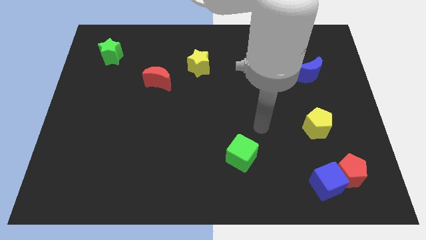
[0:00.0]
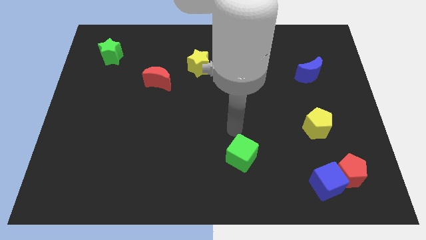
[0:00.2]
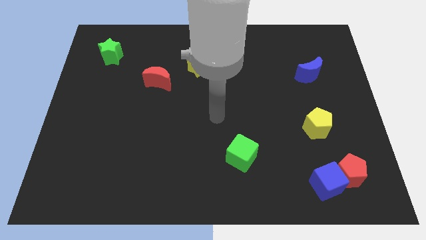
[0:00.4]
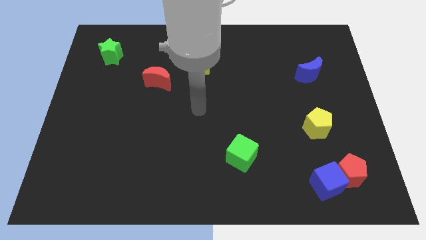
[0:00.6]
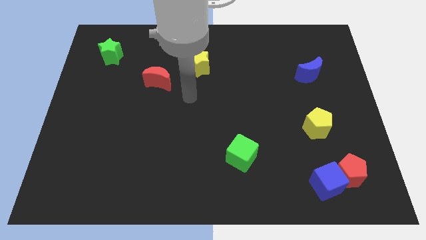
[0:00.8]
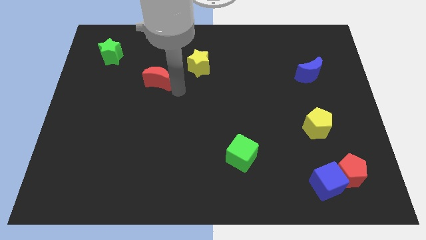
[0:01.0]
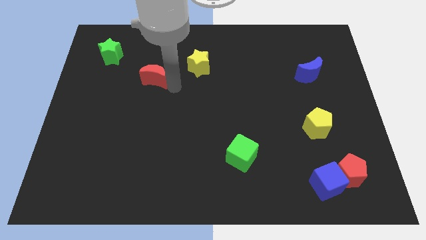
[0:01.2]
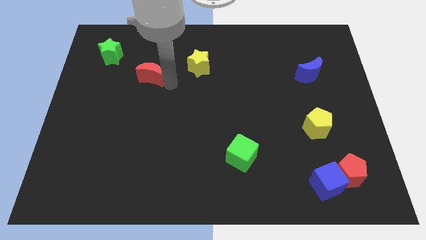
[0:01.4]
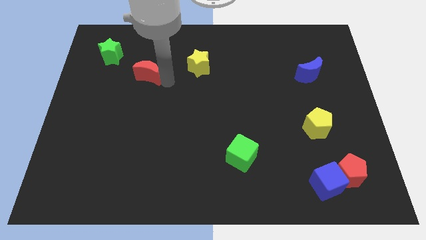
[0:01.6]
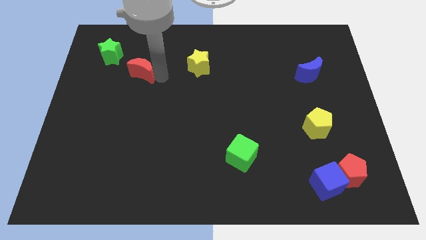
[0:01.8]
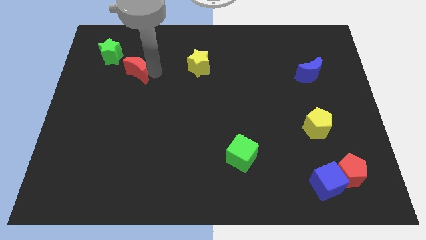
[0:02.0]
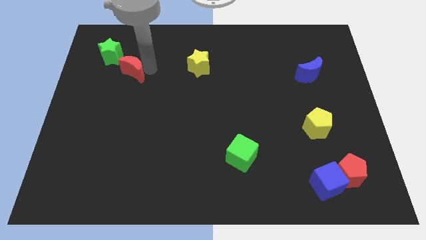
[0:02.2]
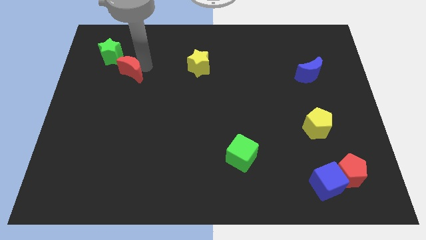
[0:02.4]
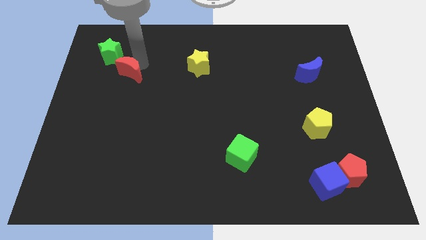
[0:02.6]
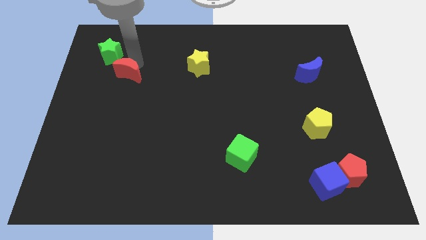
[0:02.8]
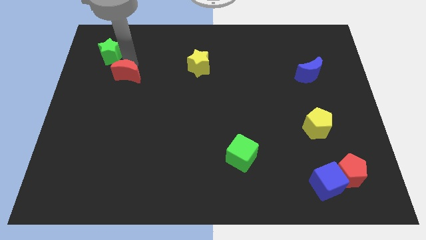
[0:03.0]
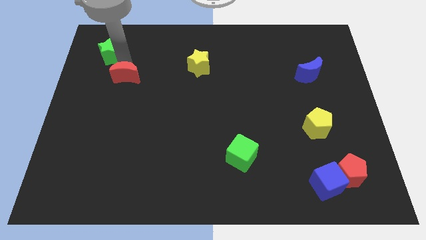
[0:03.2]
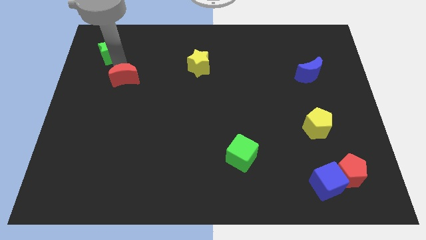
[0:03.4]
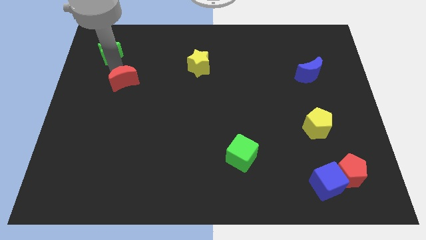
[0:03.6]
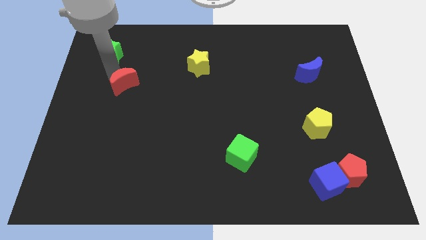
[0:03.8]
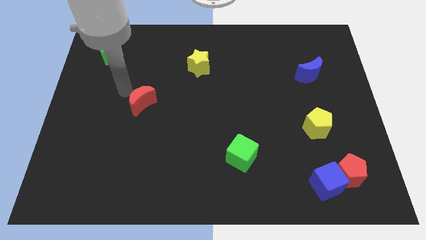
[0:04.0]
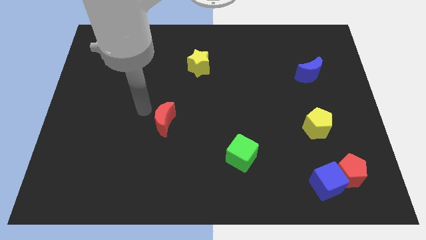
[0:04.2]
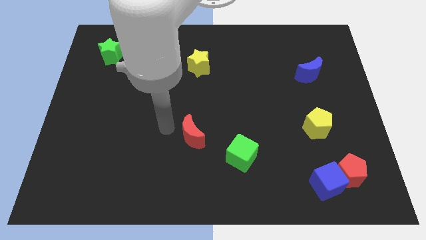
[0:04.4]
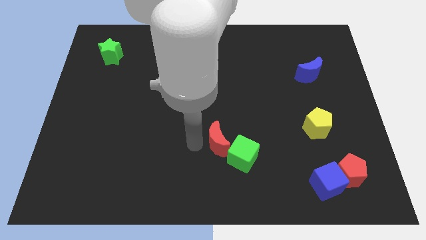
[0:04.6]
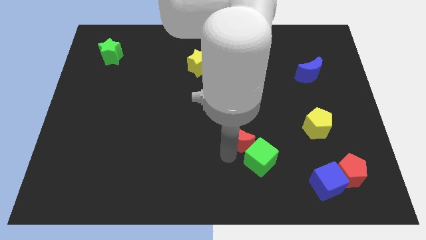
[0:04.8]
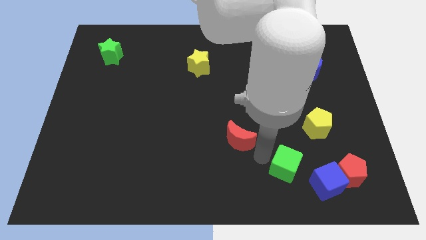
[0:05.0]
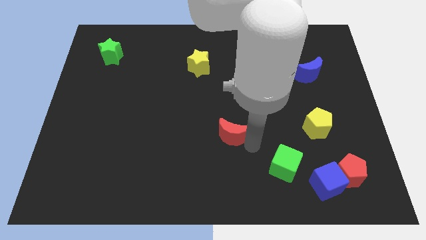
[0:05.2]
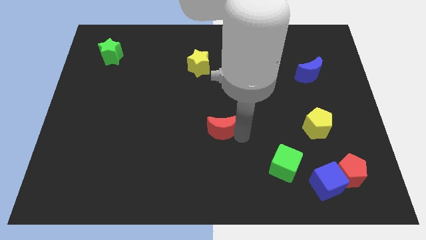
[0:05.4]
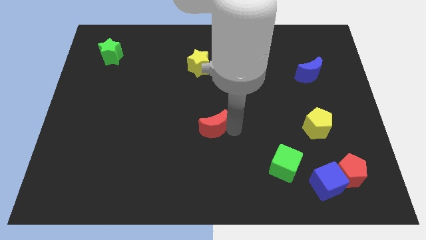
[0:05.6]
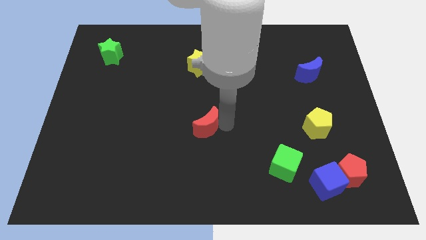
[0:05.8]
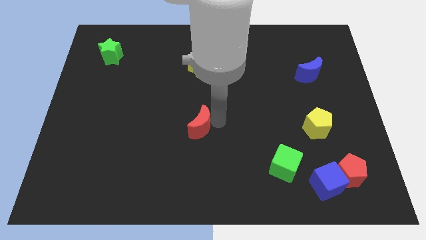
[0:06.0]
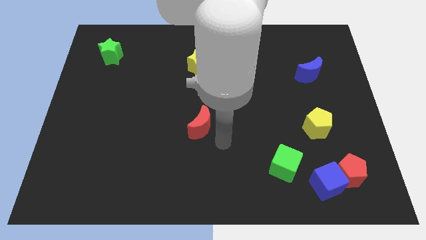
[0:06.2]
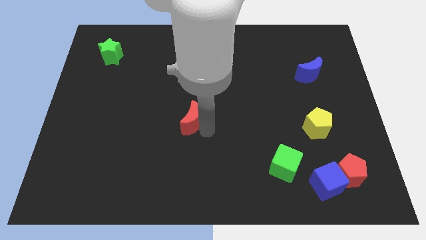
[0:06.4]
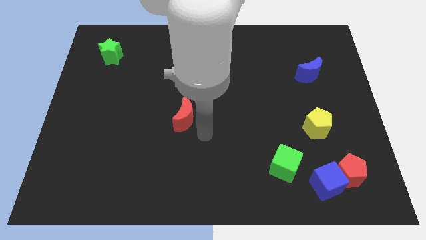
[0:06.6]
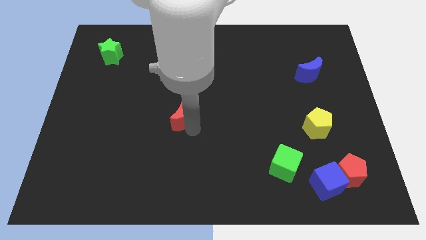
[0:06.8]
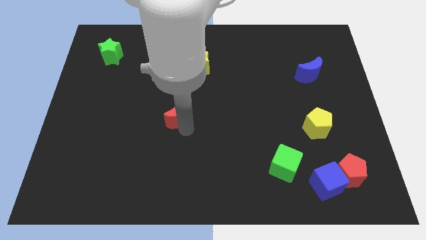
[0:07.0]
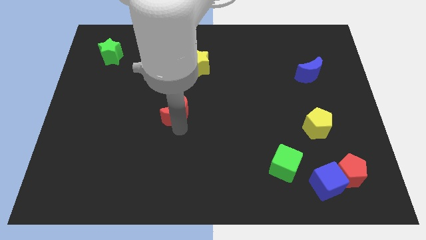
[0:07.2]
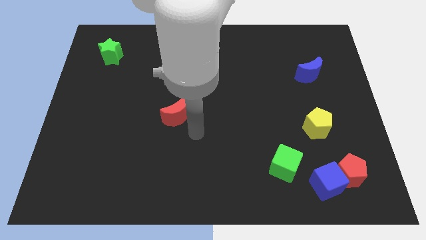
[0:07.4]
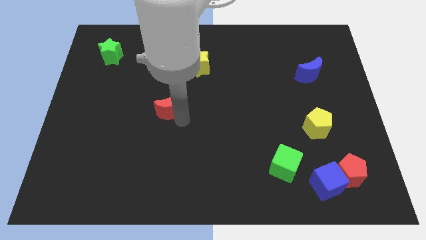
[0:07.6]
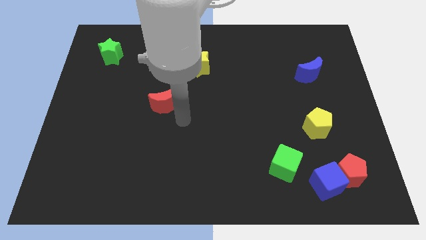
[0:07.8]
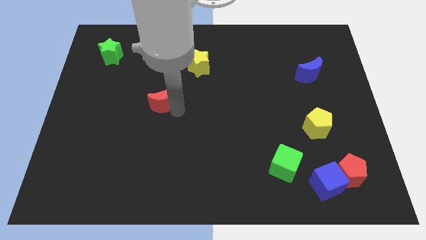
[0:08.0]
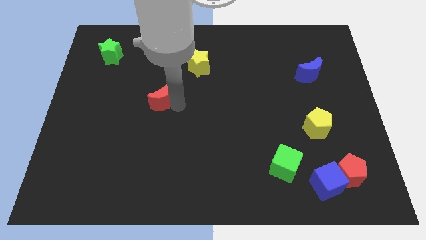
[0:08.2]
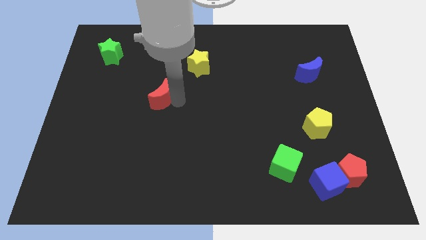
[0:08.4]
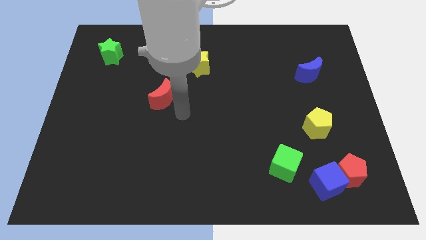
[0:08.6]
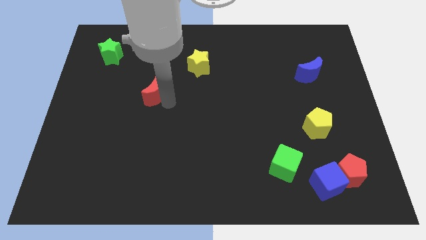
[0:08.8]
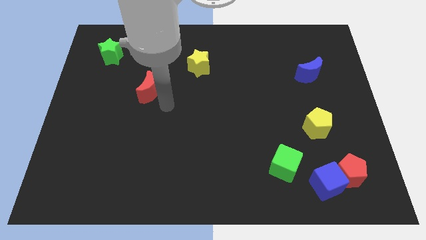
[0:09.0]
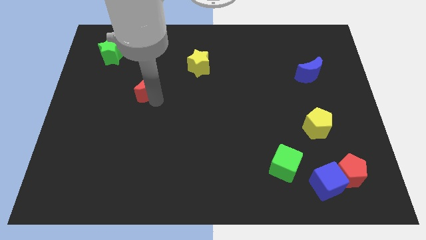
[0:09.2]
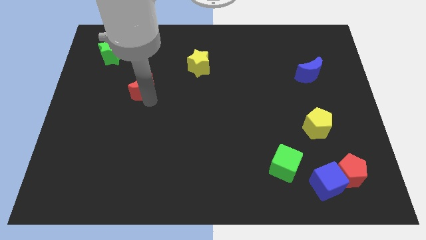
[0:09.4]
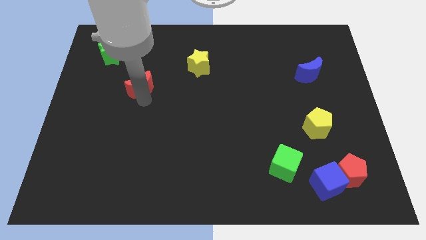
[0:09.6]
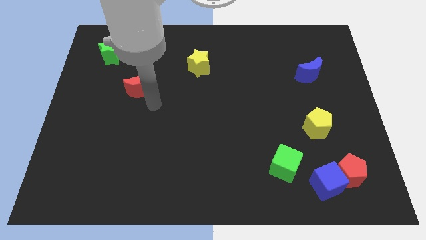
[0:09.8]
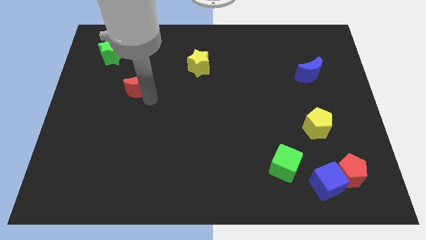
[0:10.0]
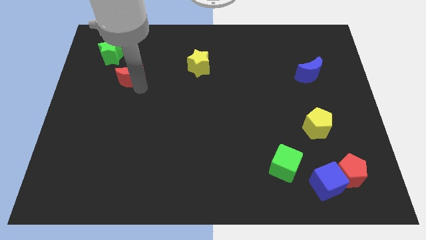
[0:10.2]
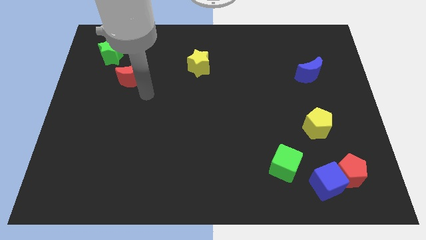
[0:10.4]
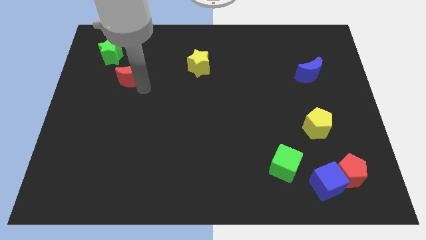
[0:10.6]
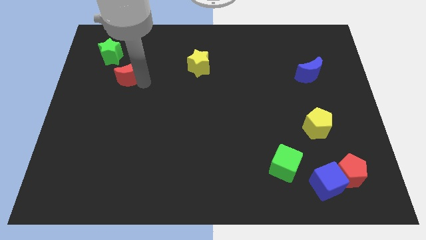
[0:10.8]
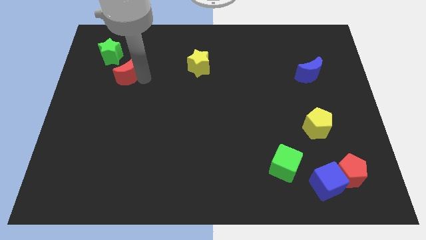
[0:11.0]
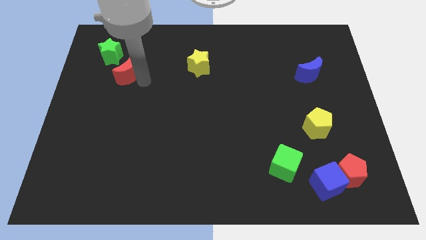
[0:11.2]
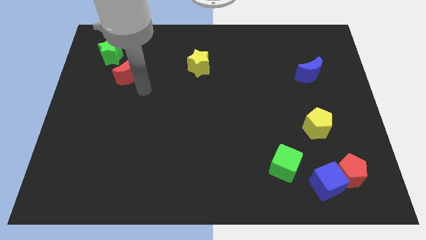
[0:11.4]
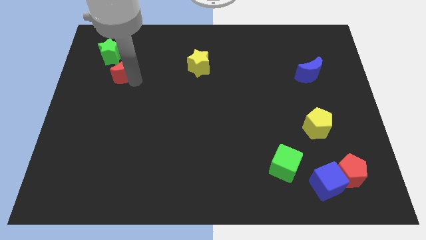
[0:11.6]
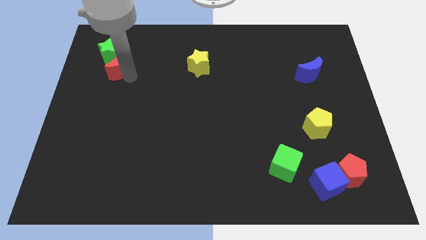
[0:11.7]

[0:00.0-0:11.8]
push the red moon towards the green star

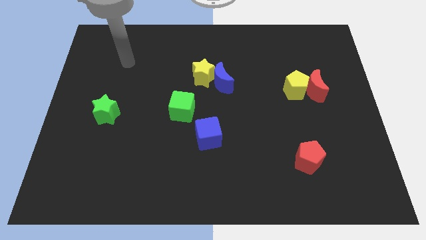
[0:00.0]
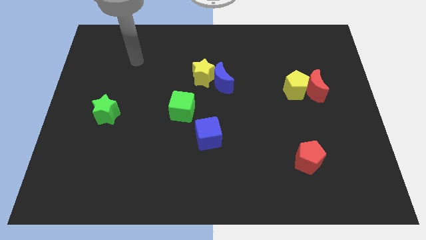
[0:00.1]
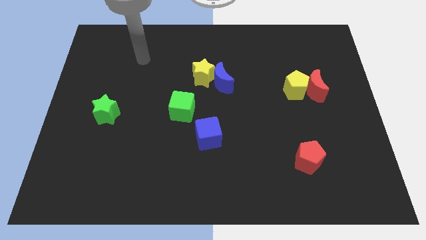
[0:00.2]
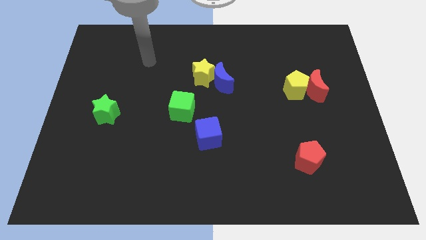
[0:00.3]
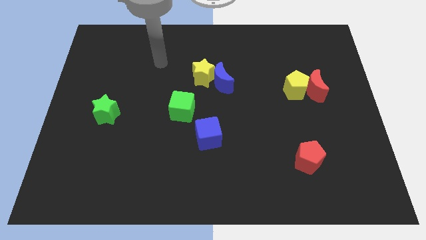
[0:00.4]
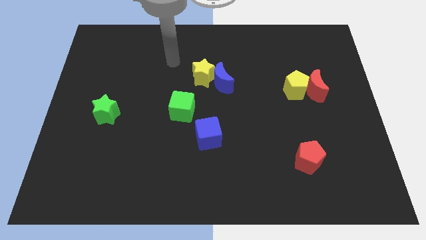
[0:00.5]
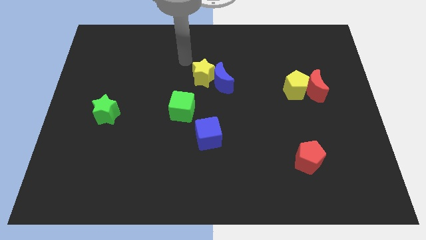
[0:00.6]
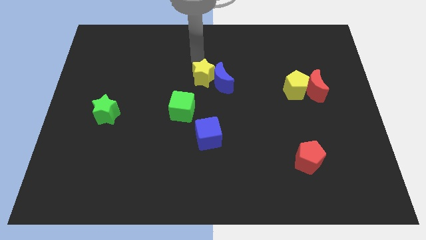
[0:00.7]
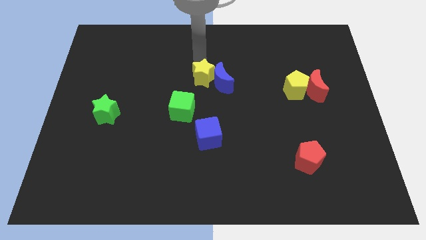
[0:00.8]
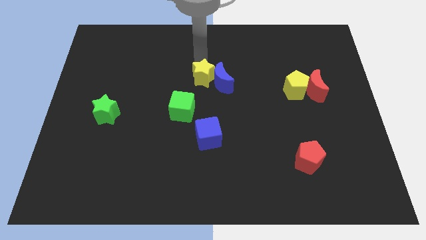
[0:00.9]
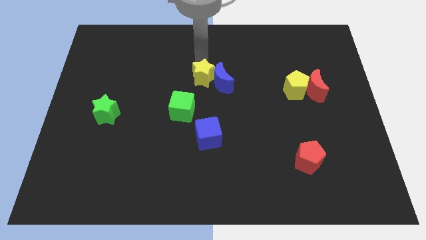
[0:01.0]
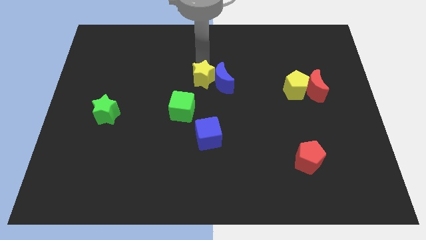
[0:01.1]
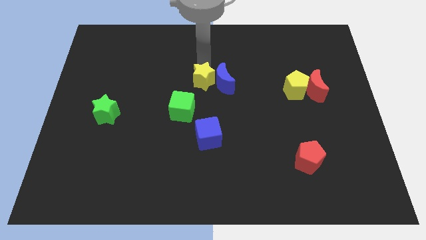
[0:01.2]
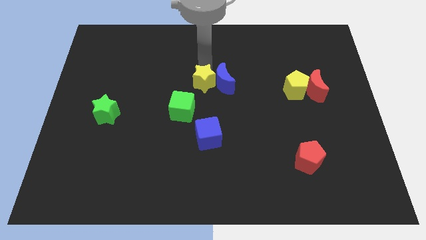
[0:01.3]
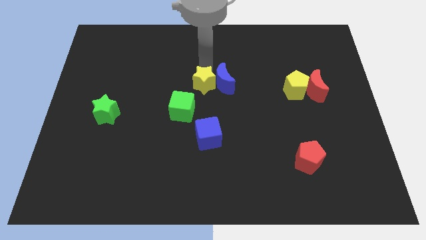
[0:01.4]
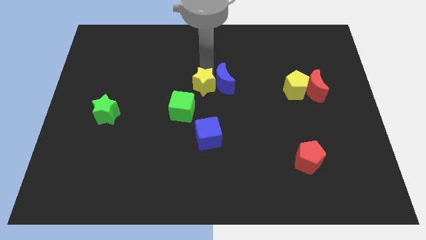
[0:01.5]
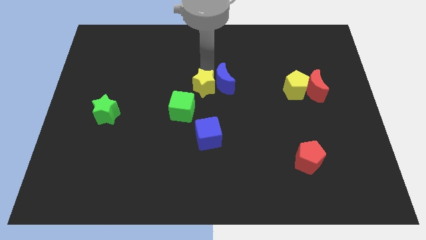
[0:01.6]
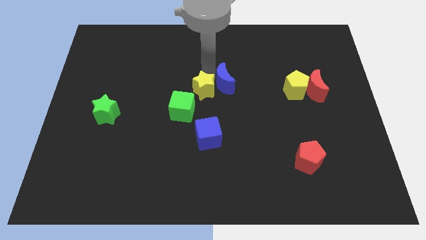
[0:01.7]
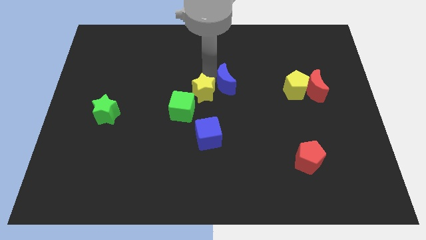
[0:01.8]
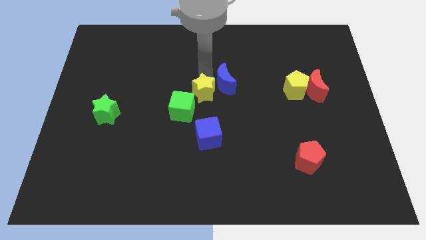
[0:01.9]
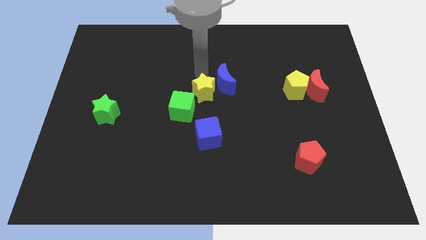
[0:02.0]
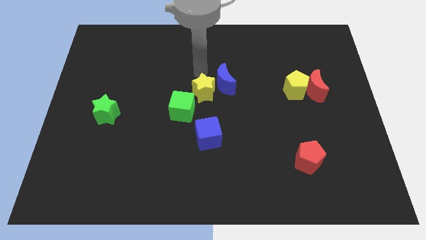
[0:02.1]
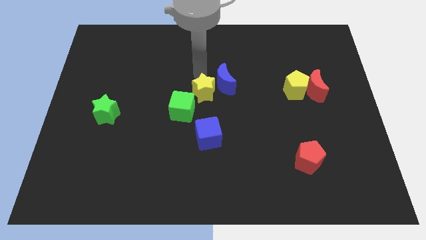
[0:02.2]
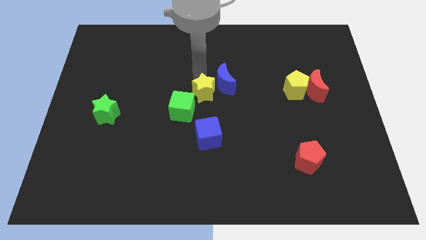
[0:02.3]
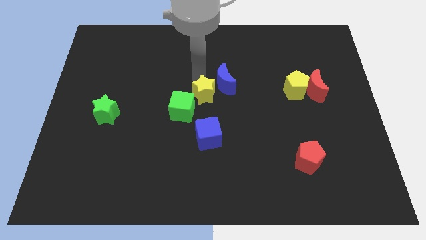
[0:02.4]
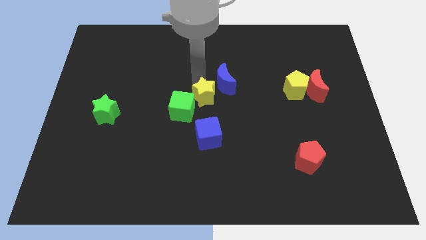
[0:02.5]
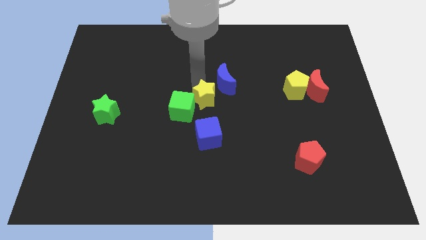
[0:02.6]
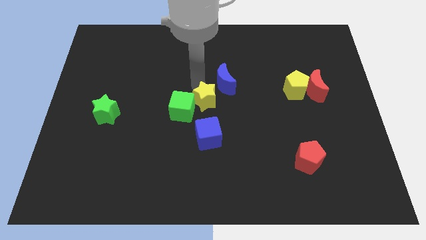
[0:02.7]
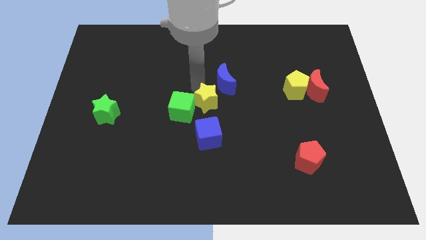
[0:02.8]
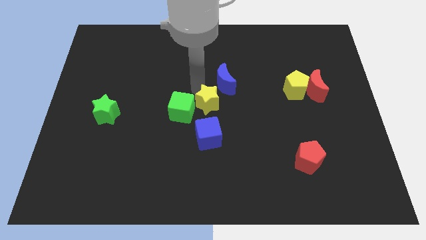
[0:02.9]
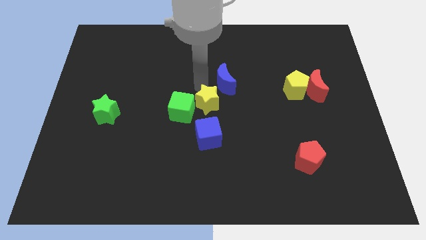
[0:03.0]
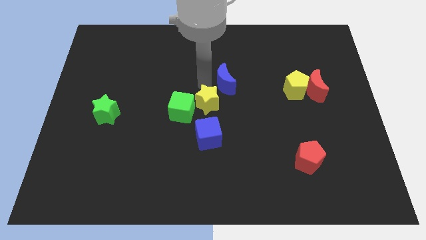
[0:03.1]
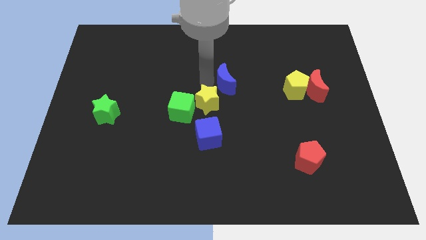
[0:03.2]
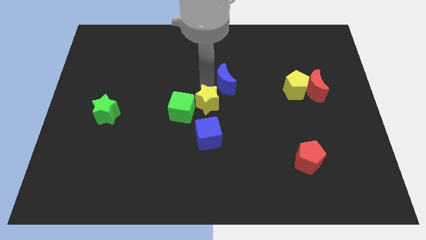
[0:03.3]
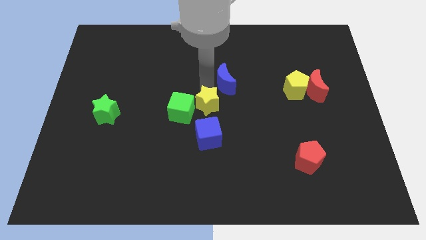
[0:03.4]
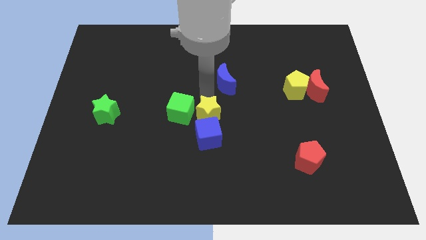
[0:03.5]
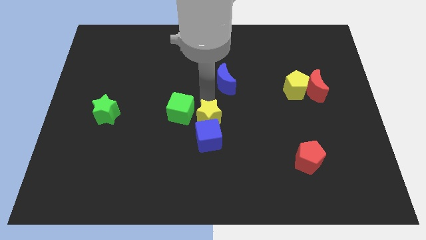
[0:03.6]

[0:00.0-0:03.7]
put the yellow star next to the blue cube
